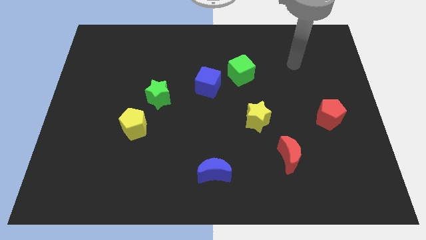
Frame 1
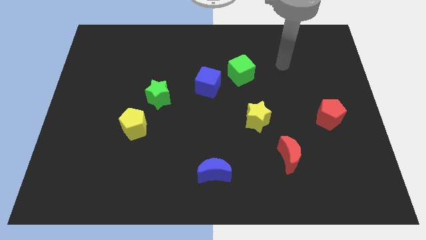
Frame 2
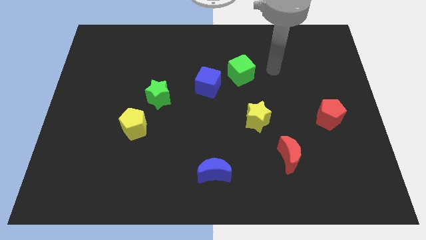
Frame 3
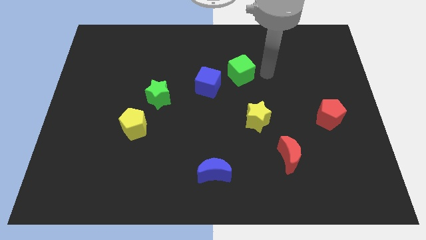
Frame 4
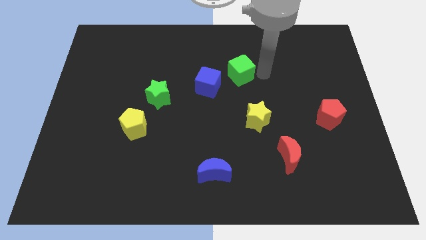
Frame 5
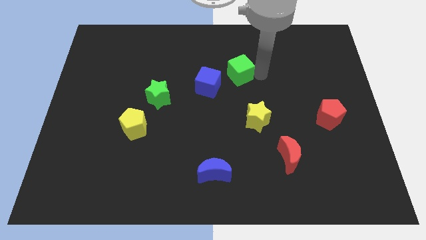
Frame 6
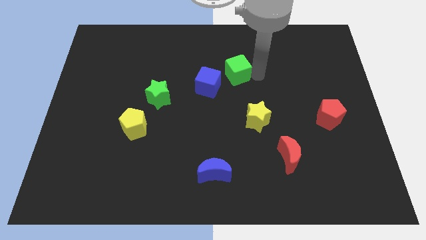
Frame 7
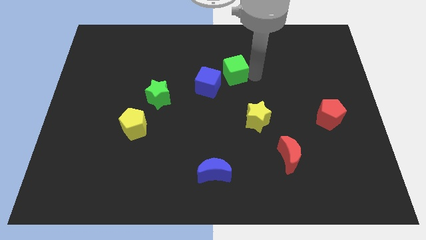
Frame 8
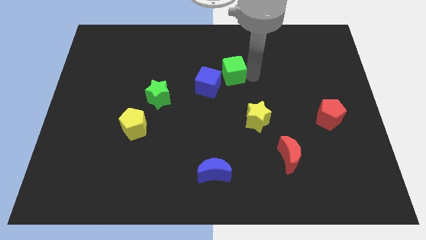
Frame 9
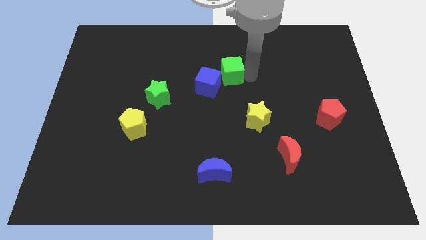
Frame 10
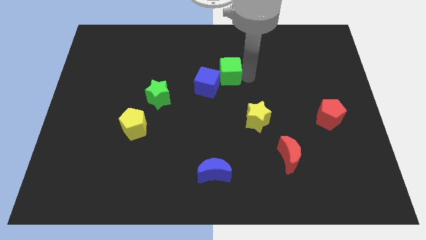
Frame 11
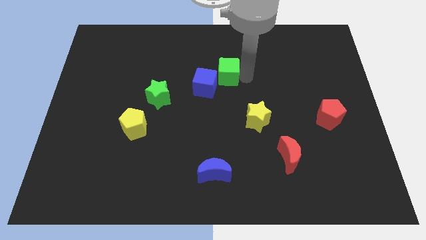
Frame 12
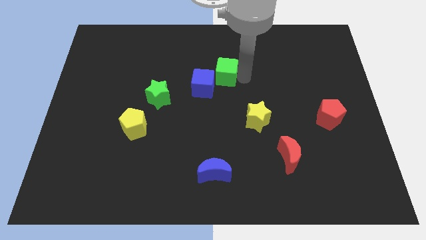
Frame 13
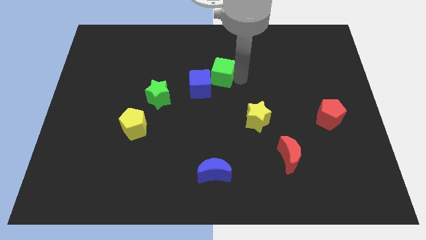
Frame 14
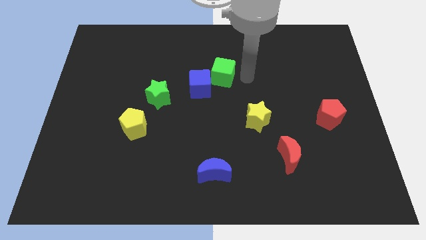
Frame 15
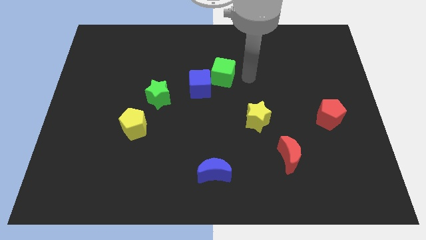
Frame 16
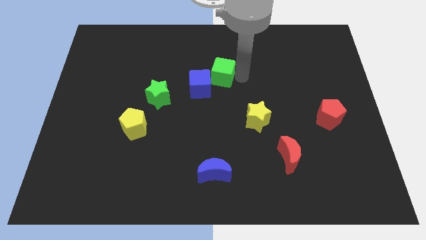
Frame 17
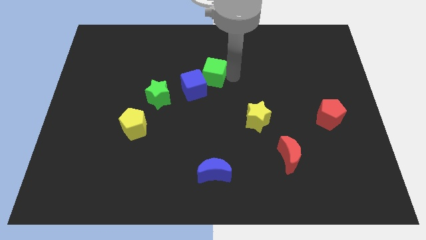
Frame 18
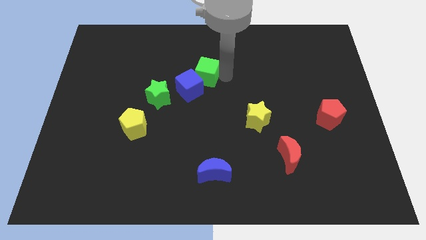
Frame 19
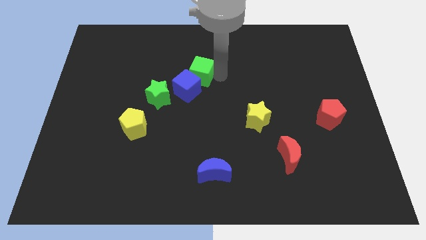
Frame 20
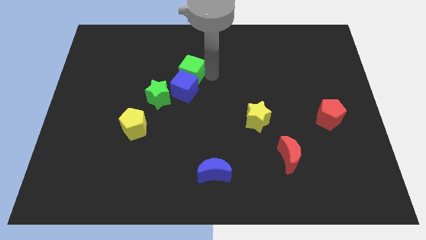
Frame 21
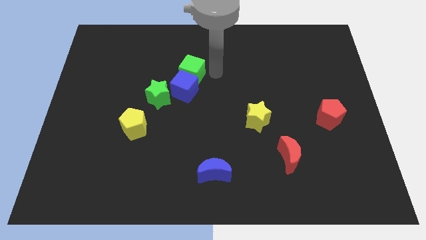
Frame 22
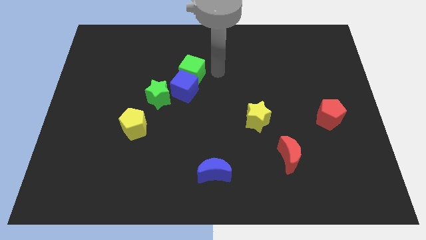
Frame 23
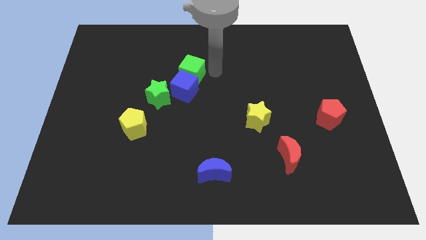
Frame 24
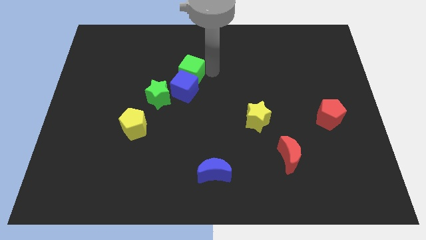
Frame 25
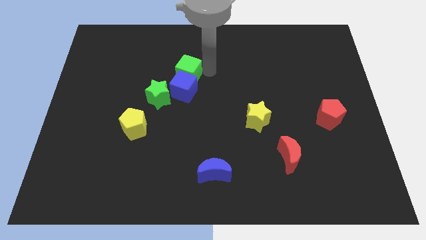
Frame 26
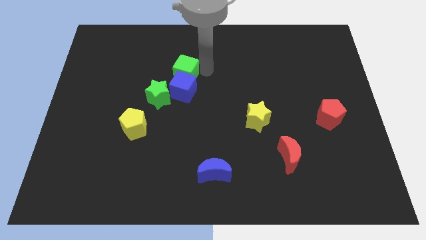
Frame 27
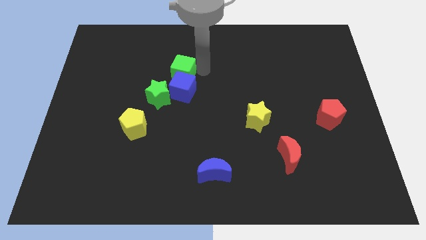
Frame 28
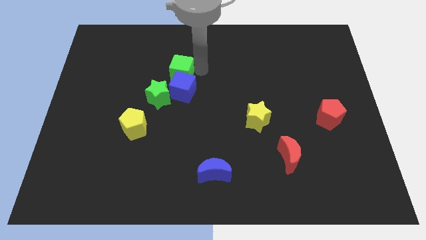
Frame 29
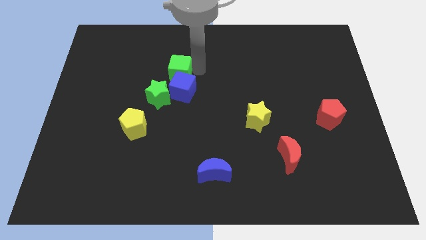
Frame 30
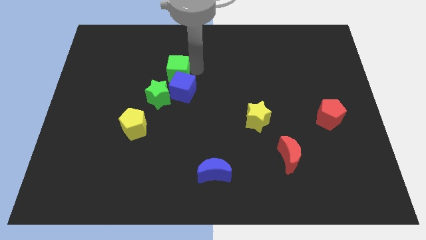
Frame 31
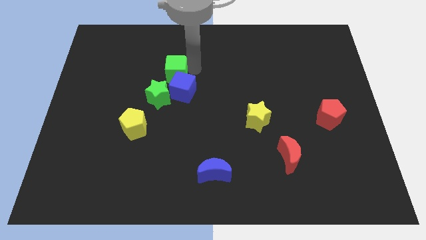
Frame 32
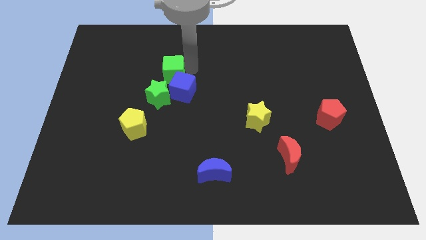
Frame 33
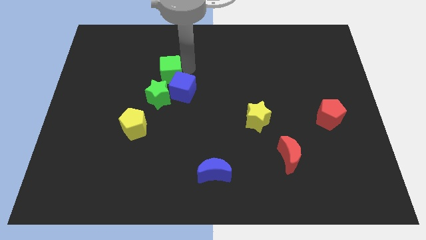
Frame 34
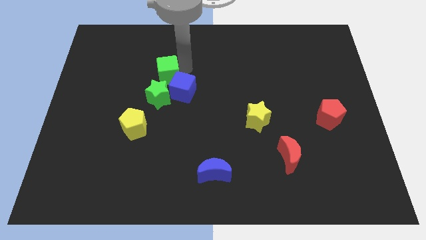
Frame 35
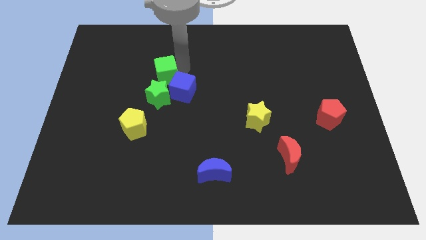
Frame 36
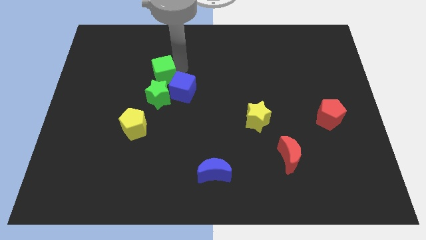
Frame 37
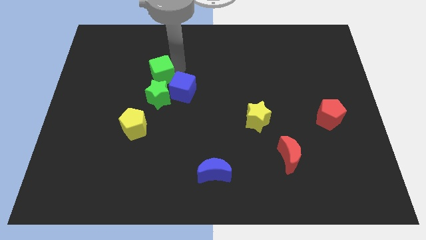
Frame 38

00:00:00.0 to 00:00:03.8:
move the green cube left

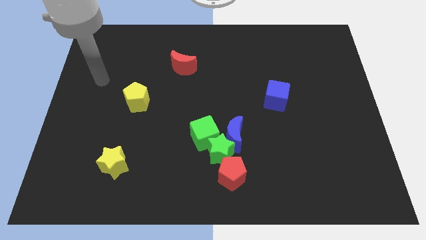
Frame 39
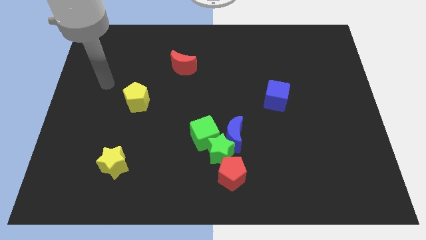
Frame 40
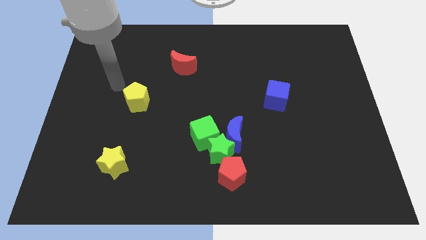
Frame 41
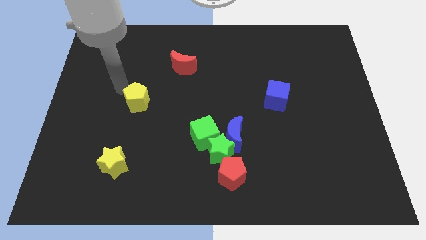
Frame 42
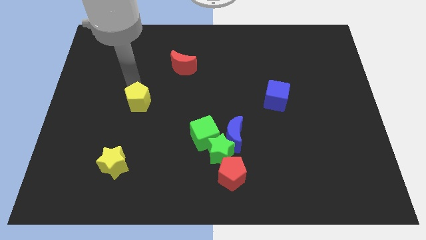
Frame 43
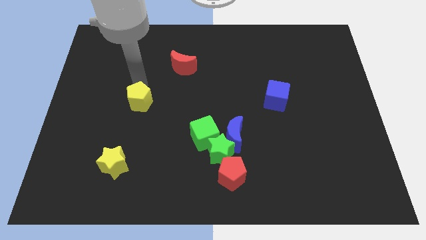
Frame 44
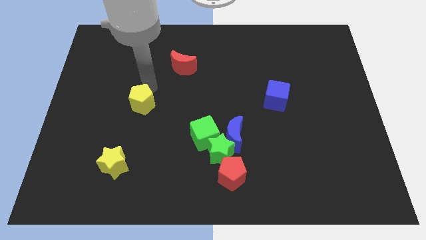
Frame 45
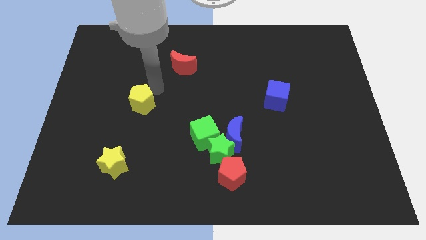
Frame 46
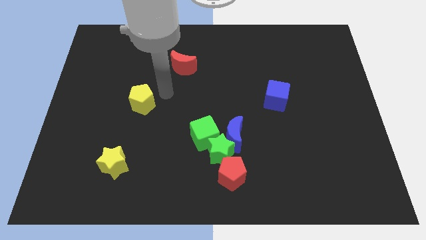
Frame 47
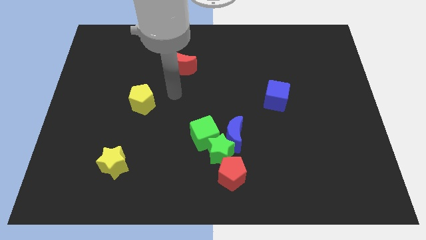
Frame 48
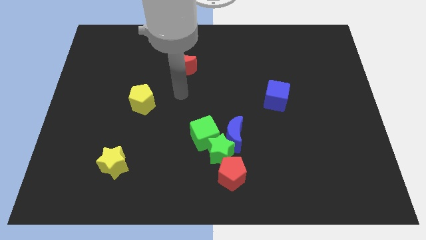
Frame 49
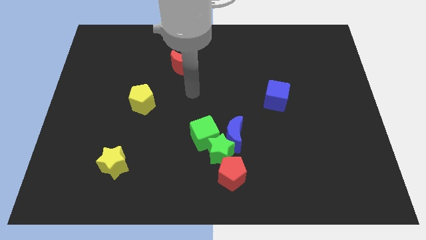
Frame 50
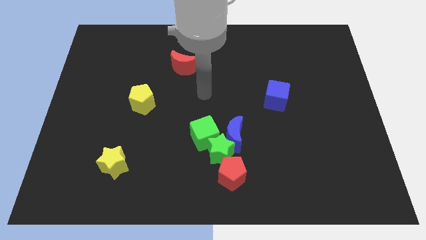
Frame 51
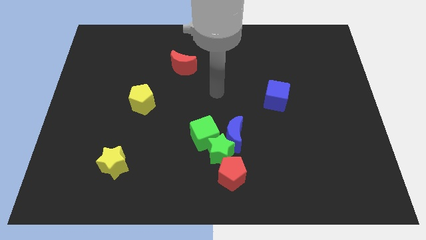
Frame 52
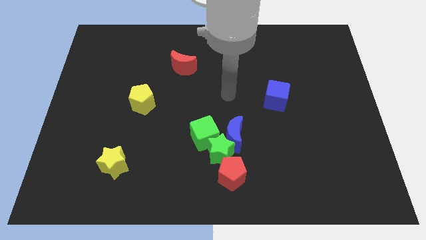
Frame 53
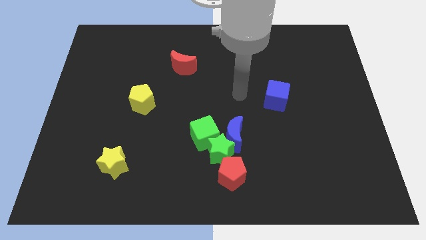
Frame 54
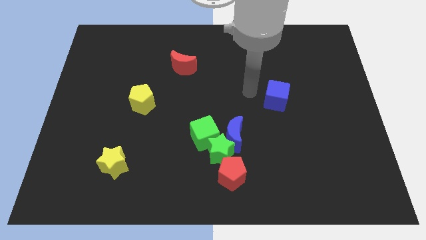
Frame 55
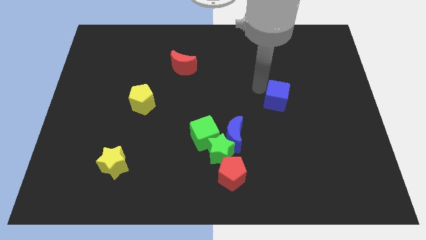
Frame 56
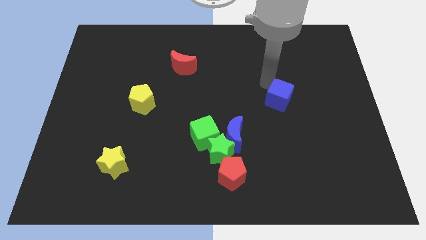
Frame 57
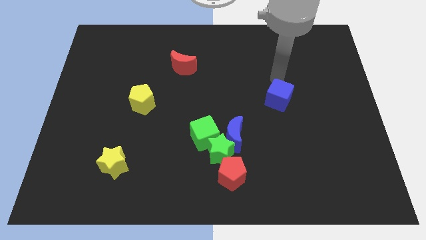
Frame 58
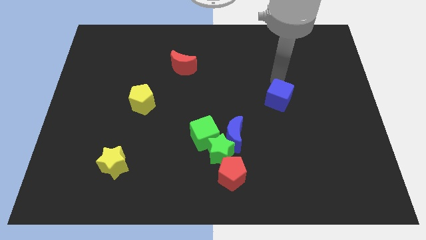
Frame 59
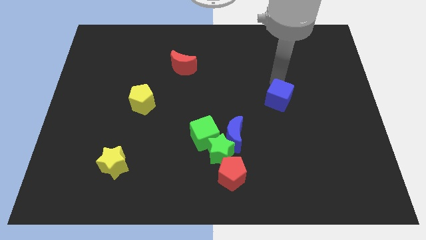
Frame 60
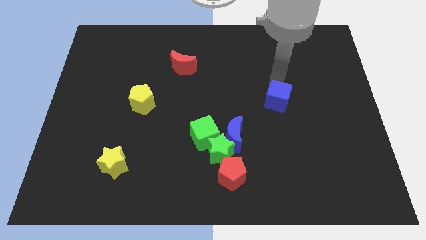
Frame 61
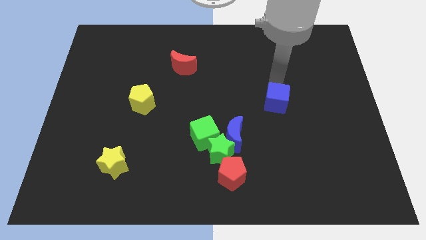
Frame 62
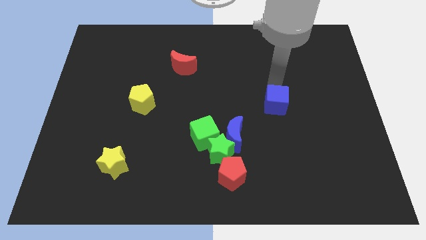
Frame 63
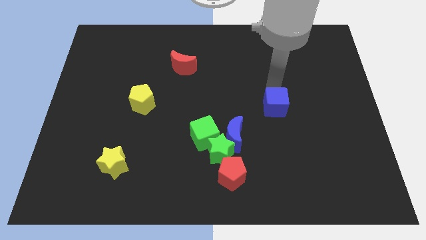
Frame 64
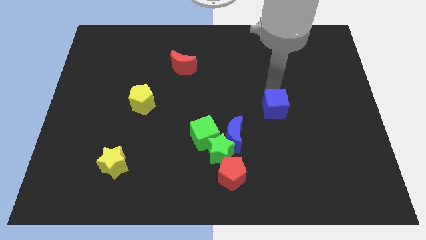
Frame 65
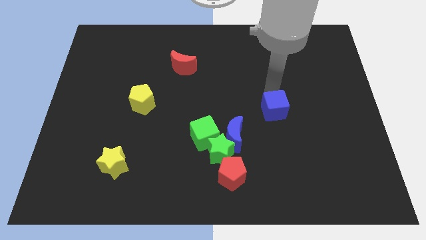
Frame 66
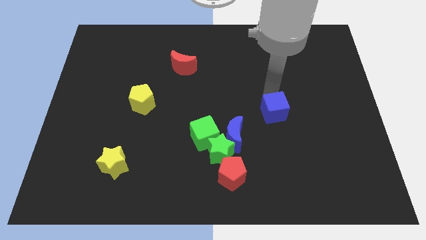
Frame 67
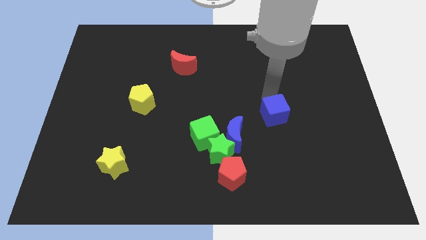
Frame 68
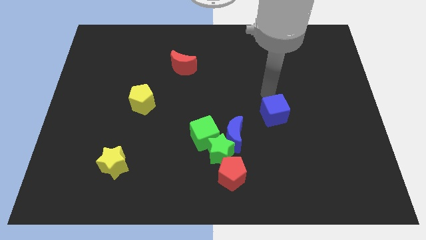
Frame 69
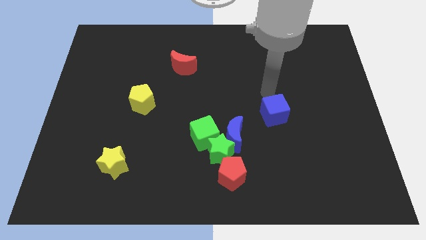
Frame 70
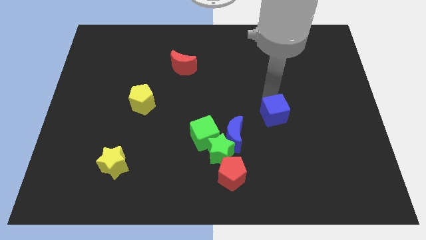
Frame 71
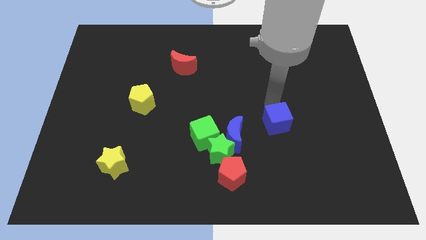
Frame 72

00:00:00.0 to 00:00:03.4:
slightly push the blue cube downwards

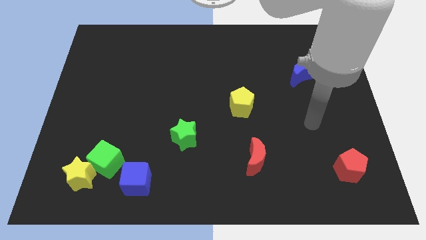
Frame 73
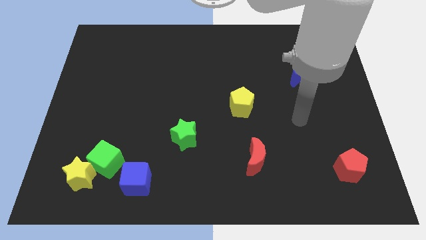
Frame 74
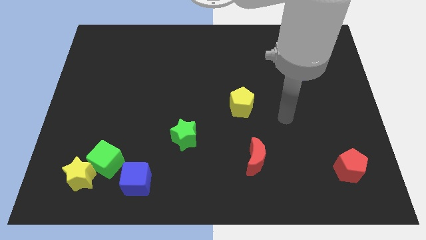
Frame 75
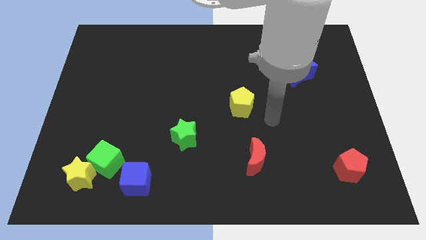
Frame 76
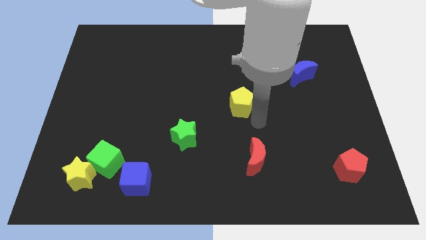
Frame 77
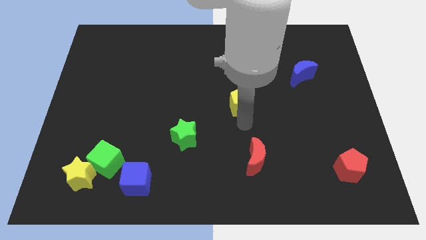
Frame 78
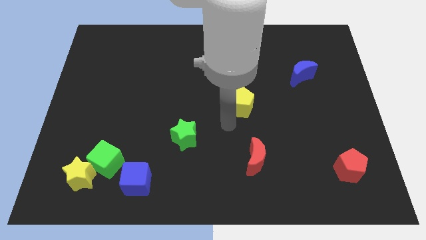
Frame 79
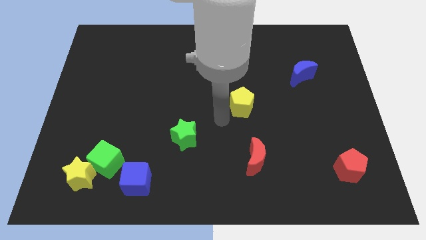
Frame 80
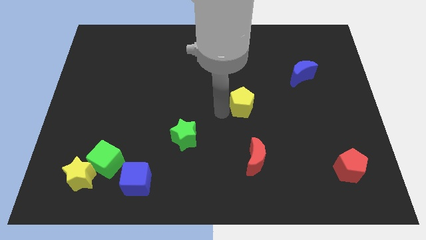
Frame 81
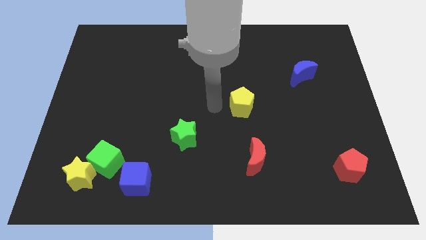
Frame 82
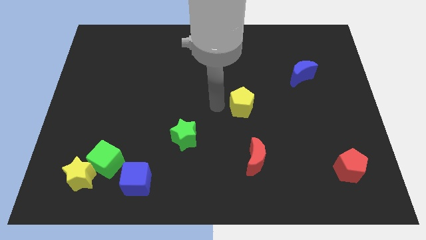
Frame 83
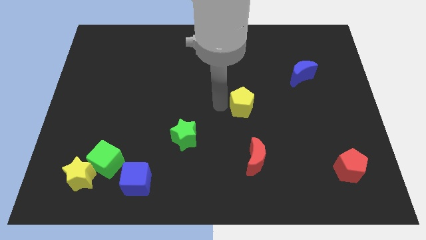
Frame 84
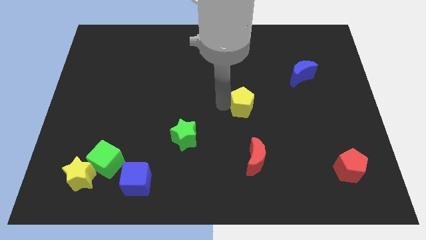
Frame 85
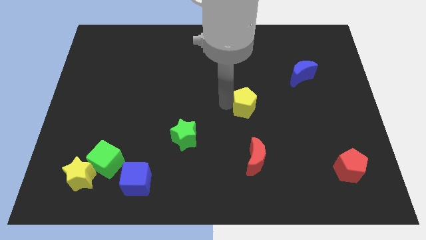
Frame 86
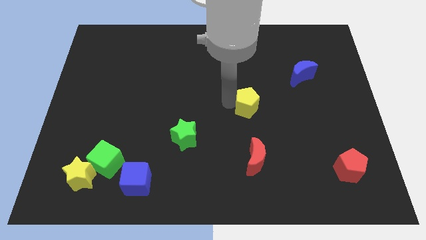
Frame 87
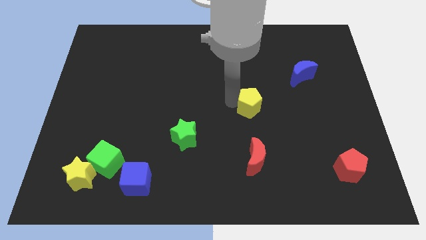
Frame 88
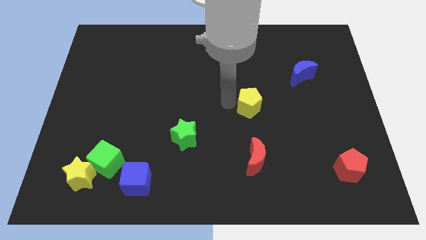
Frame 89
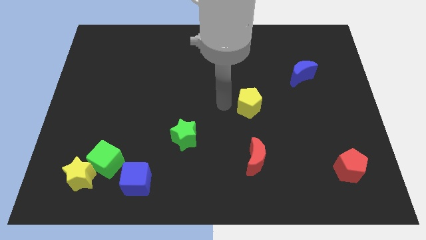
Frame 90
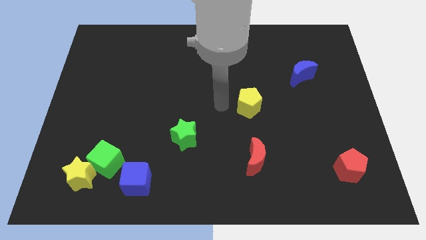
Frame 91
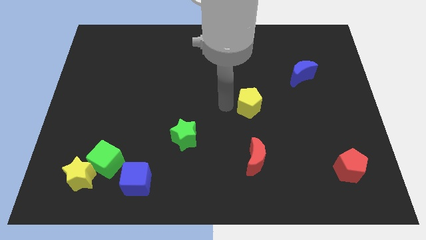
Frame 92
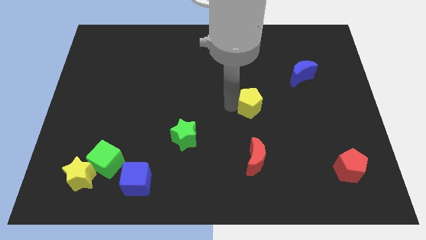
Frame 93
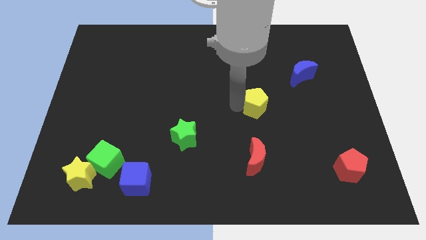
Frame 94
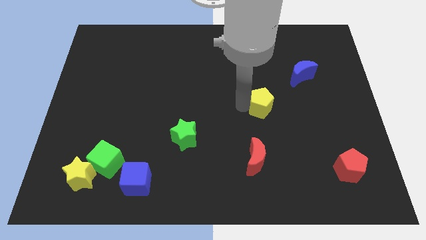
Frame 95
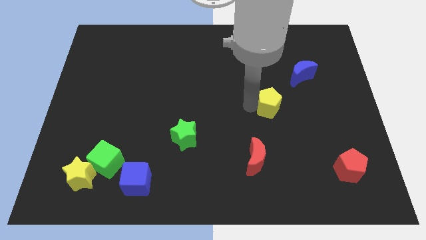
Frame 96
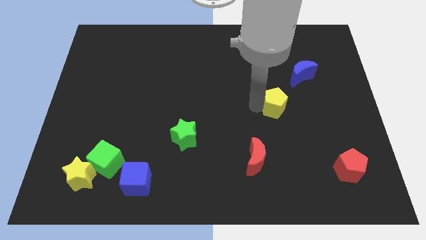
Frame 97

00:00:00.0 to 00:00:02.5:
move the yellow pentagon a bit to the right
